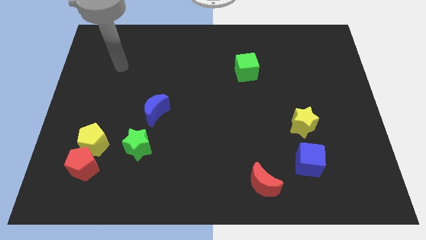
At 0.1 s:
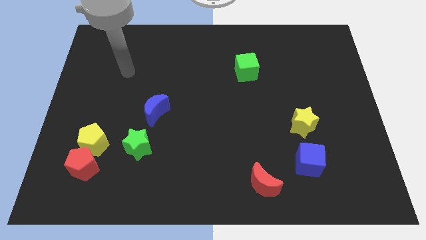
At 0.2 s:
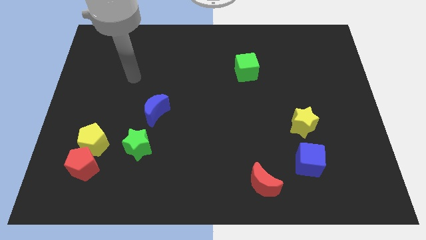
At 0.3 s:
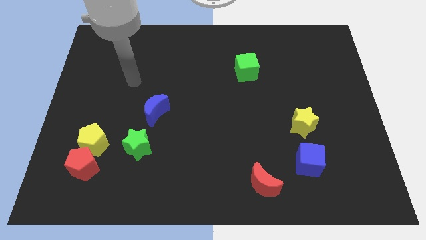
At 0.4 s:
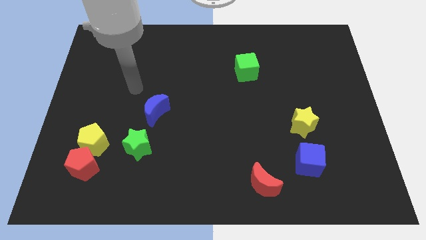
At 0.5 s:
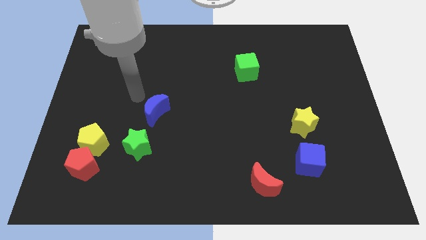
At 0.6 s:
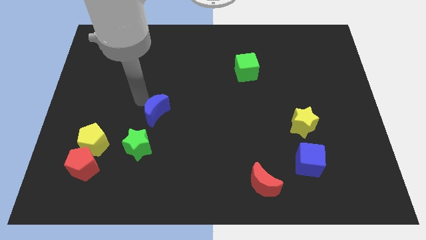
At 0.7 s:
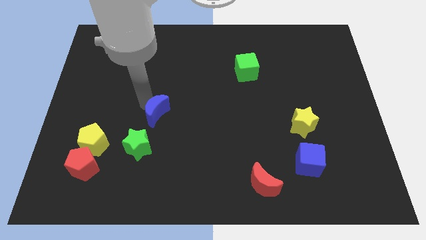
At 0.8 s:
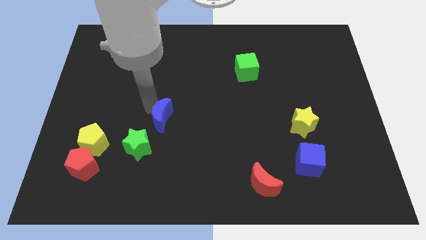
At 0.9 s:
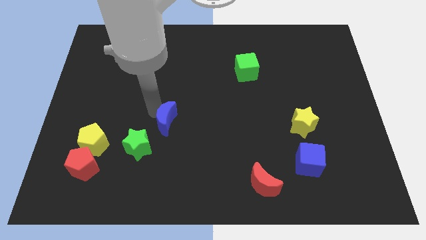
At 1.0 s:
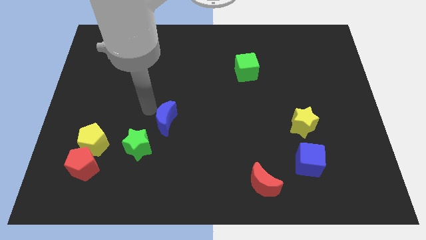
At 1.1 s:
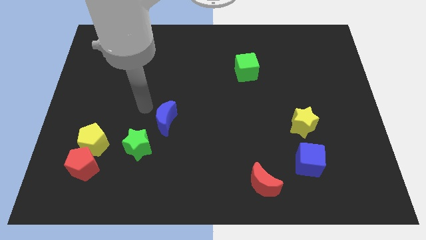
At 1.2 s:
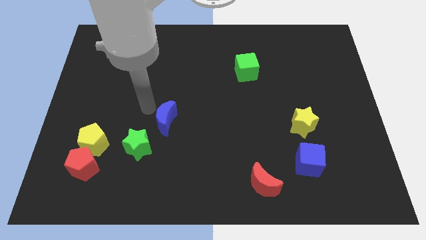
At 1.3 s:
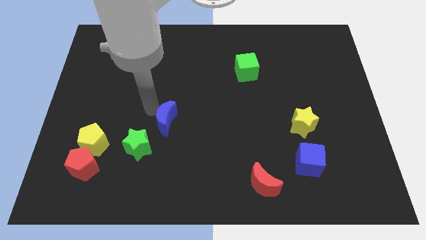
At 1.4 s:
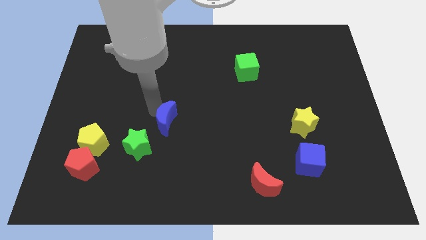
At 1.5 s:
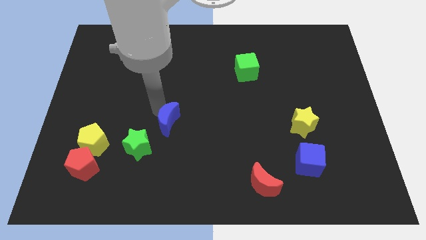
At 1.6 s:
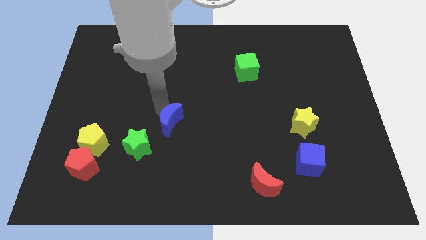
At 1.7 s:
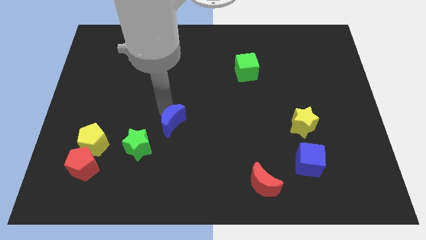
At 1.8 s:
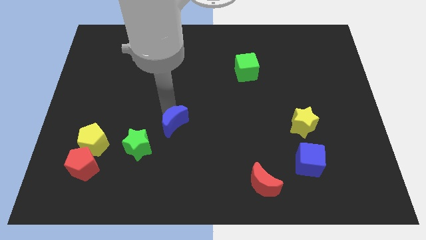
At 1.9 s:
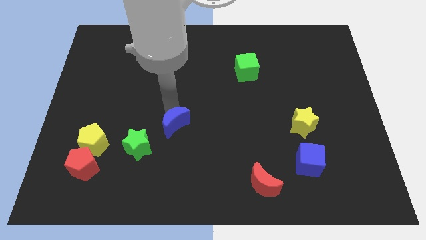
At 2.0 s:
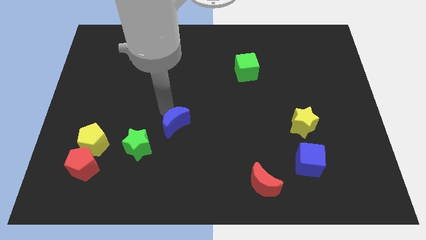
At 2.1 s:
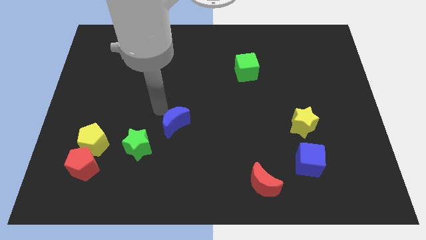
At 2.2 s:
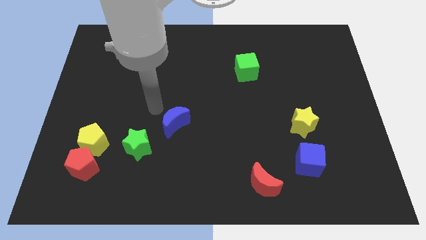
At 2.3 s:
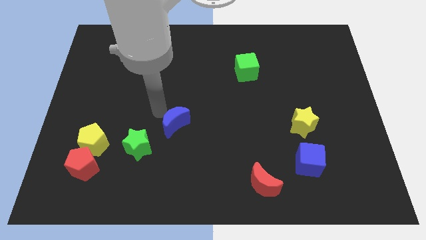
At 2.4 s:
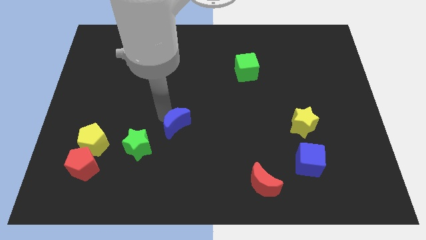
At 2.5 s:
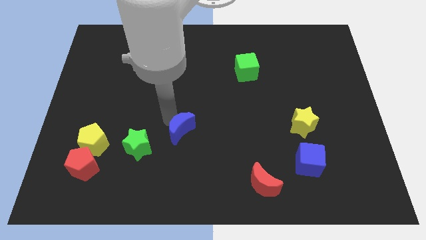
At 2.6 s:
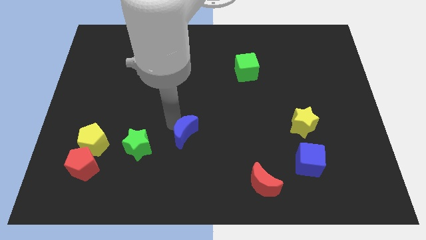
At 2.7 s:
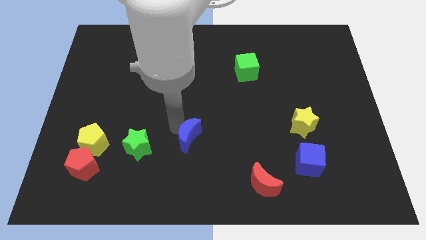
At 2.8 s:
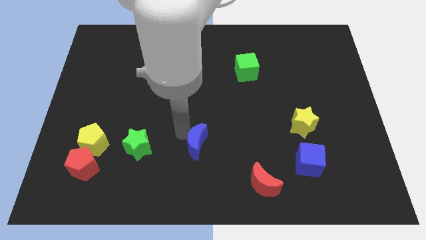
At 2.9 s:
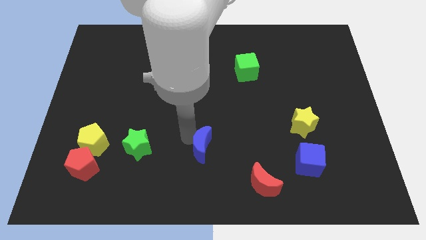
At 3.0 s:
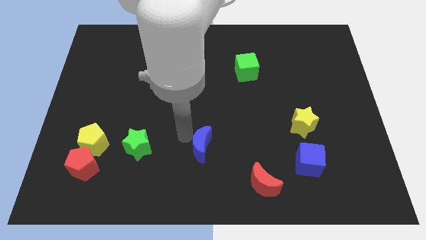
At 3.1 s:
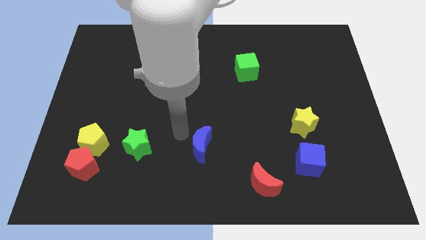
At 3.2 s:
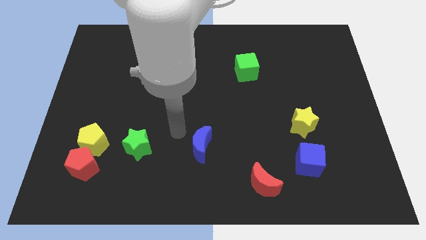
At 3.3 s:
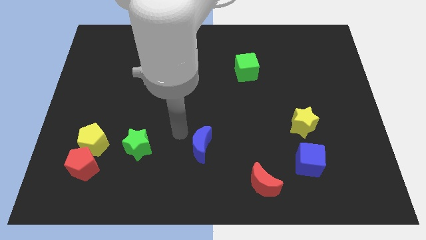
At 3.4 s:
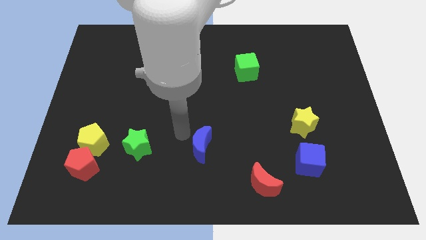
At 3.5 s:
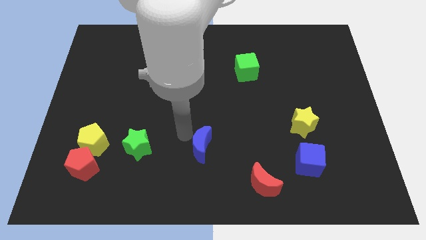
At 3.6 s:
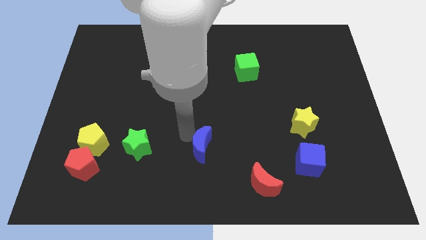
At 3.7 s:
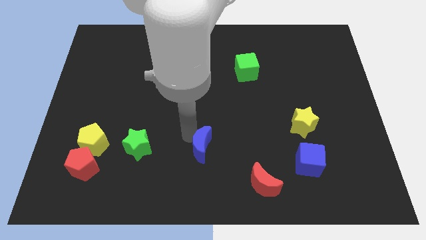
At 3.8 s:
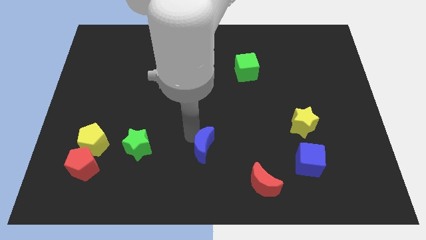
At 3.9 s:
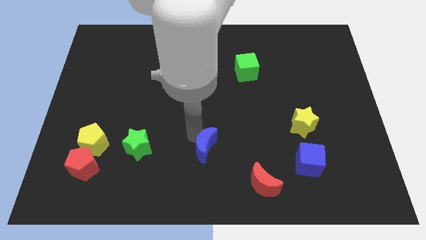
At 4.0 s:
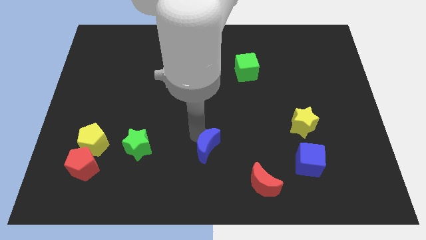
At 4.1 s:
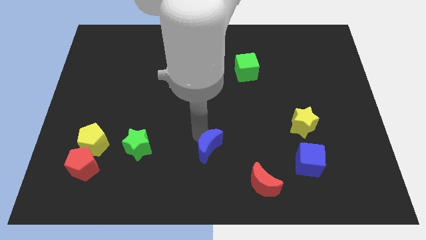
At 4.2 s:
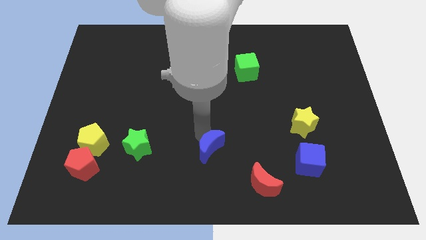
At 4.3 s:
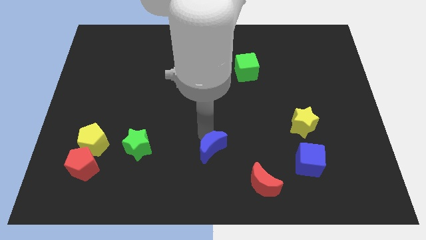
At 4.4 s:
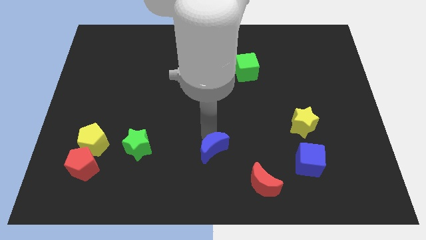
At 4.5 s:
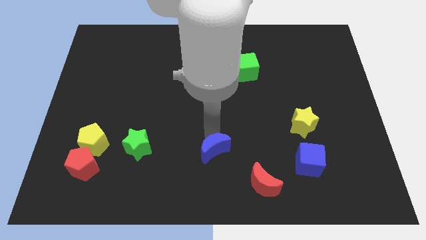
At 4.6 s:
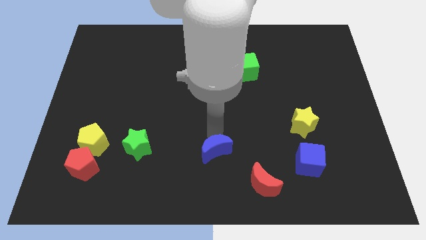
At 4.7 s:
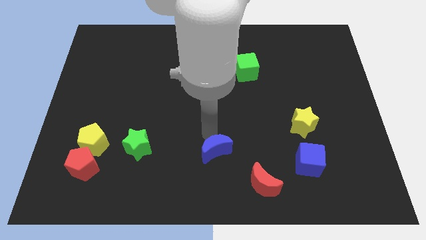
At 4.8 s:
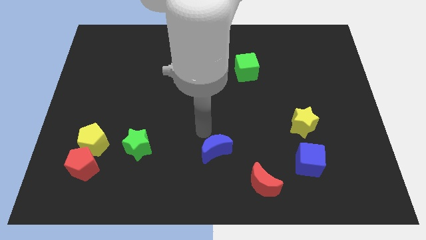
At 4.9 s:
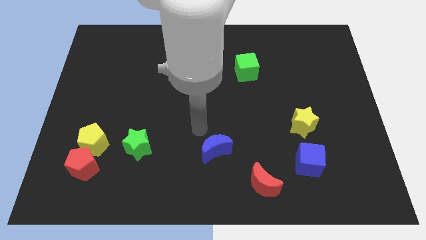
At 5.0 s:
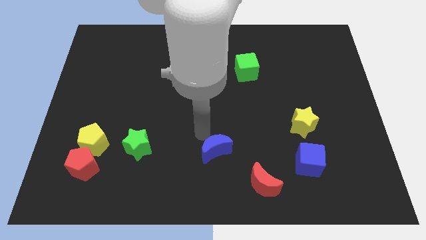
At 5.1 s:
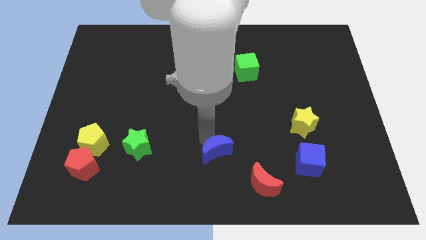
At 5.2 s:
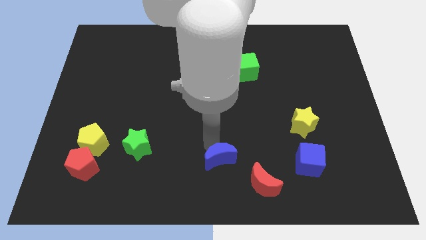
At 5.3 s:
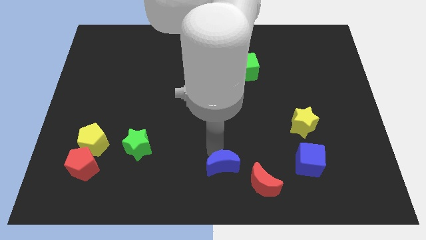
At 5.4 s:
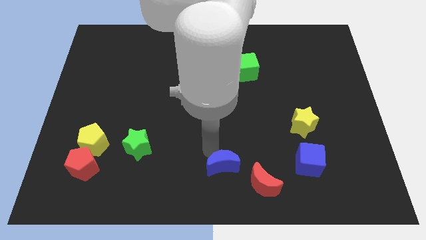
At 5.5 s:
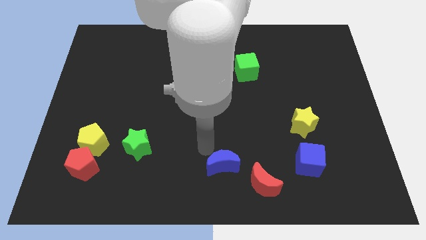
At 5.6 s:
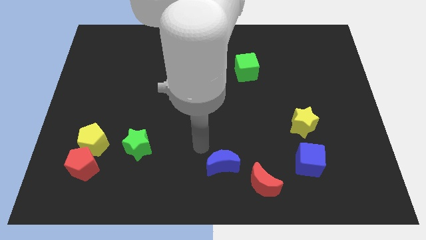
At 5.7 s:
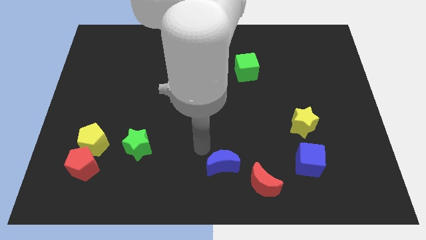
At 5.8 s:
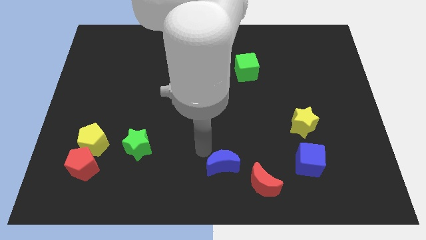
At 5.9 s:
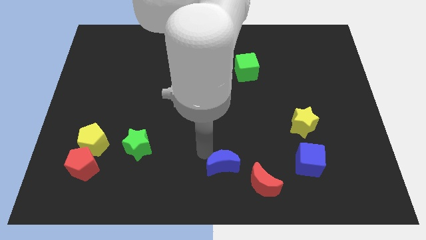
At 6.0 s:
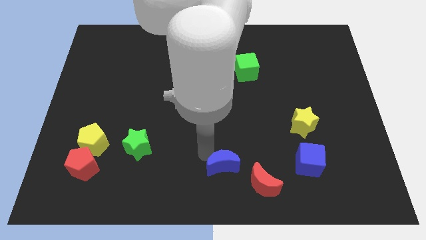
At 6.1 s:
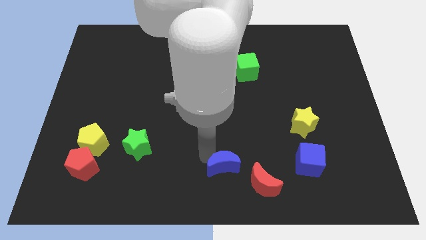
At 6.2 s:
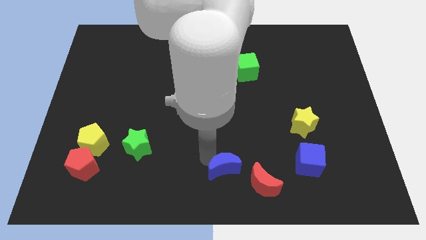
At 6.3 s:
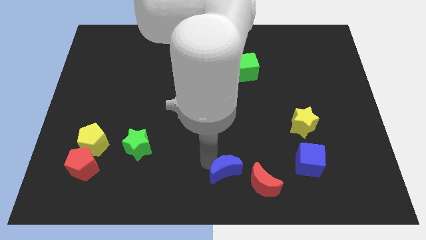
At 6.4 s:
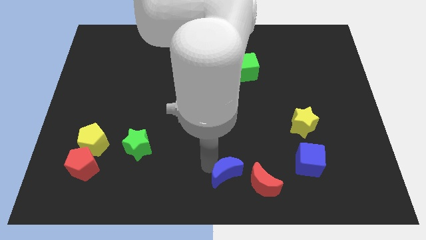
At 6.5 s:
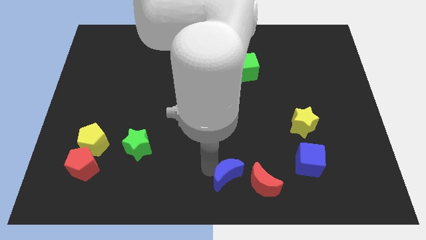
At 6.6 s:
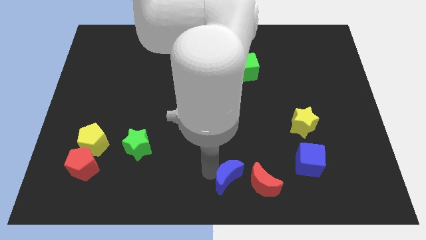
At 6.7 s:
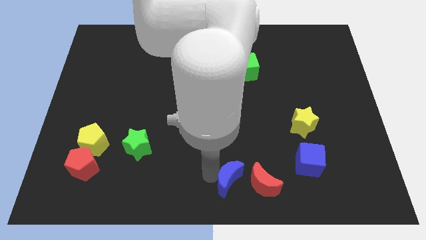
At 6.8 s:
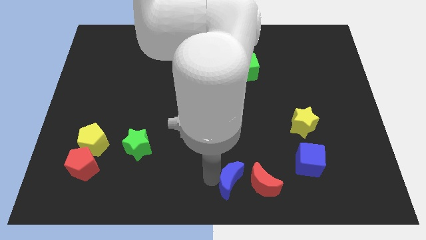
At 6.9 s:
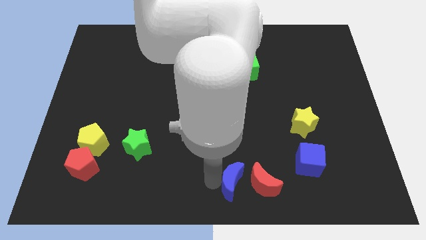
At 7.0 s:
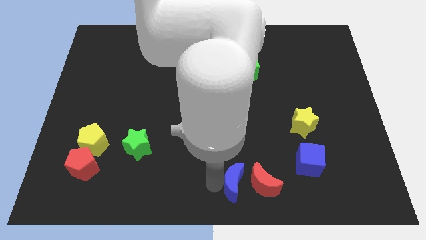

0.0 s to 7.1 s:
put the blue moon to the red moon
